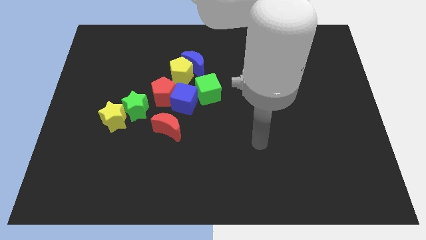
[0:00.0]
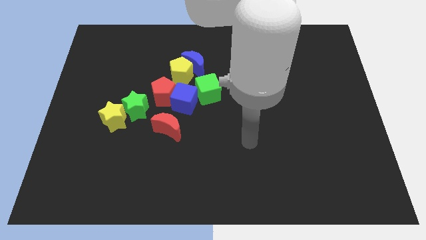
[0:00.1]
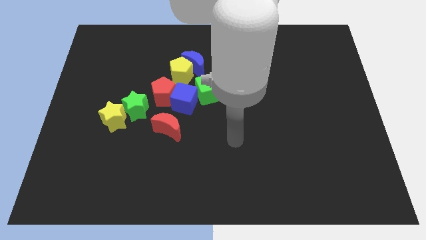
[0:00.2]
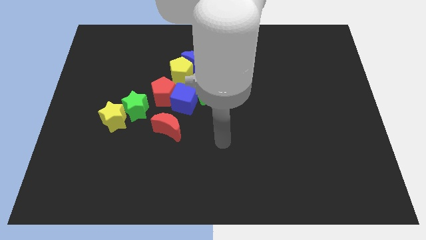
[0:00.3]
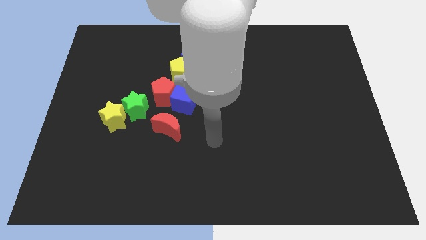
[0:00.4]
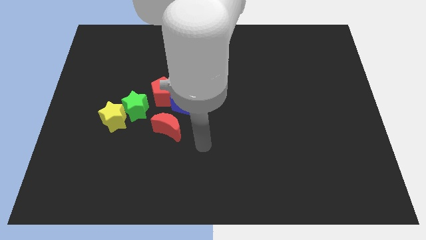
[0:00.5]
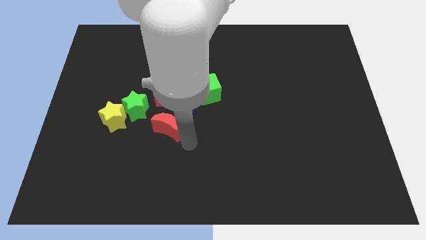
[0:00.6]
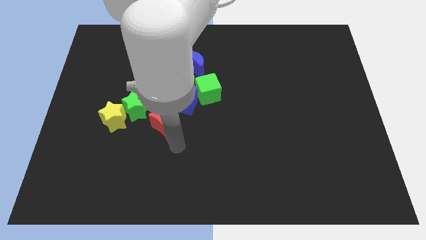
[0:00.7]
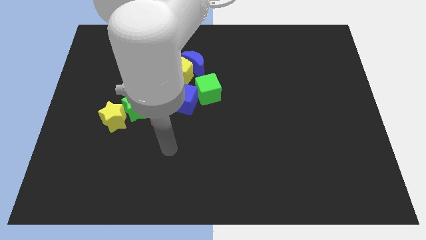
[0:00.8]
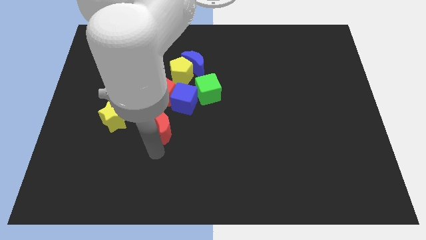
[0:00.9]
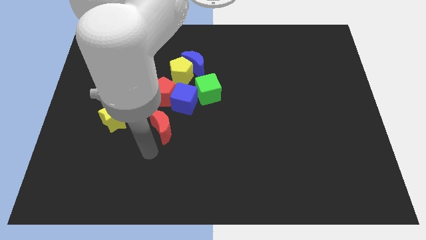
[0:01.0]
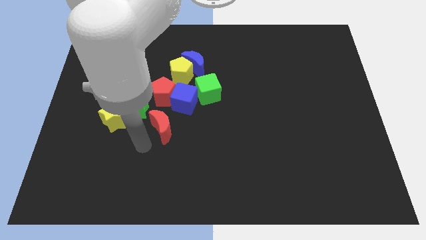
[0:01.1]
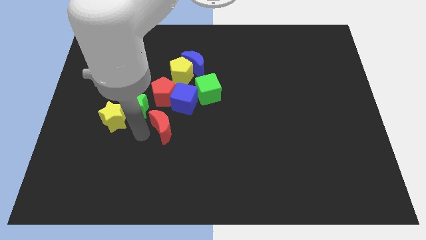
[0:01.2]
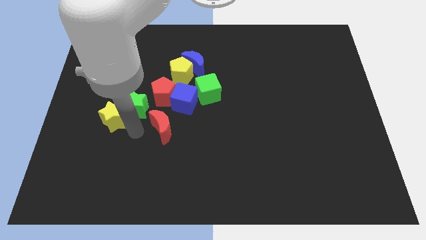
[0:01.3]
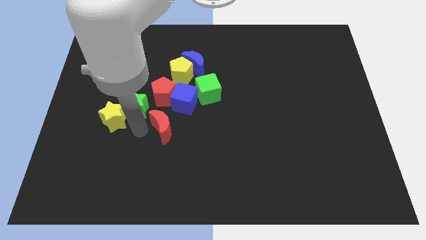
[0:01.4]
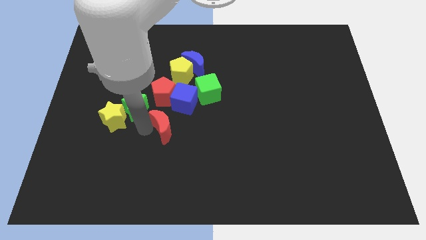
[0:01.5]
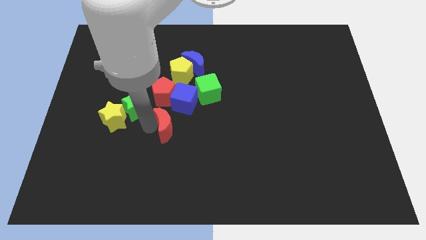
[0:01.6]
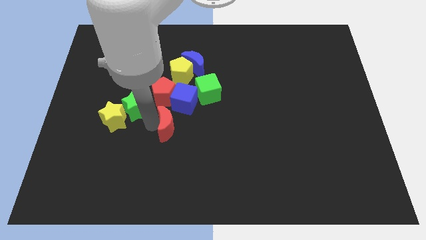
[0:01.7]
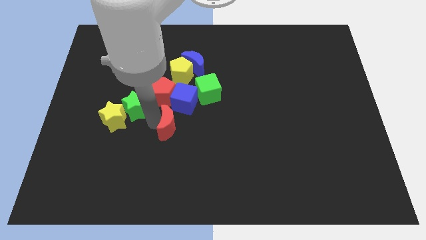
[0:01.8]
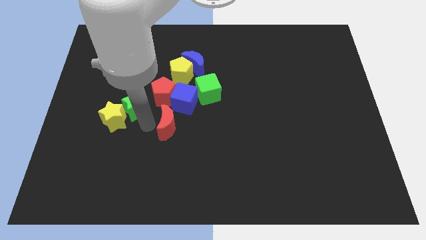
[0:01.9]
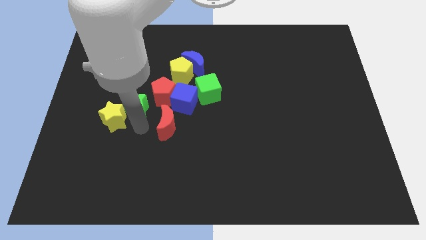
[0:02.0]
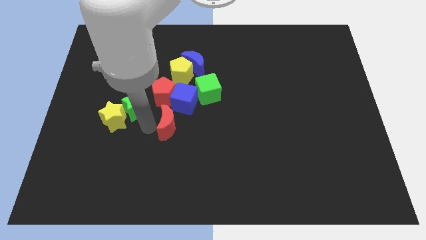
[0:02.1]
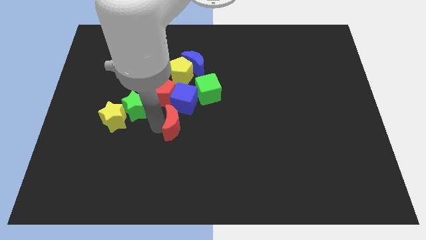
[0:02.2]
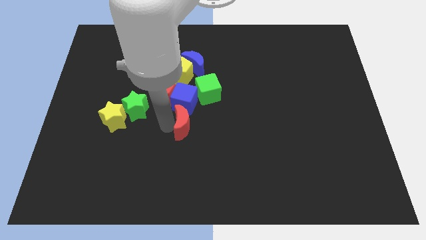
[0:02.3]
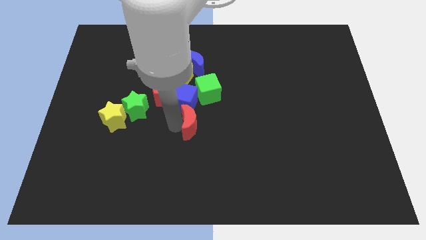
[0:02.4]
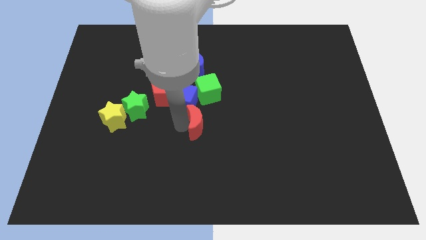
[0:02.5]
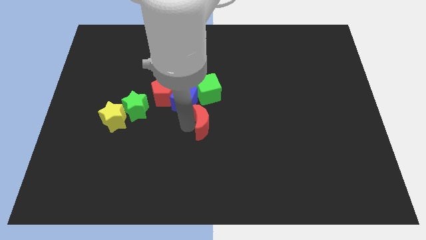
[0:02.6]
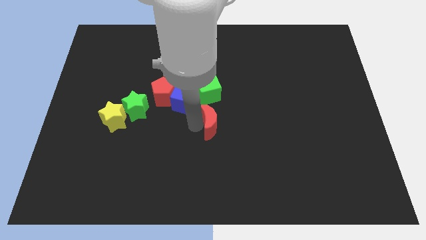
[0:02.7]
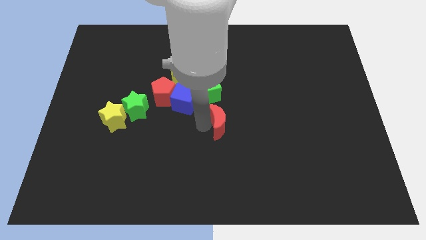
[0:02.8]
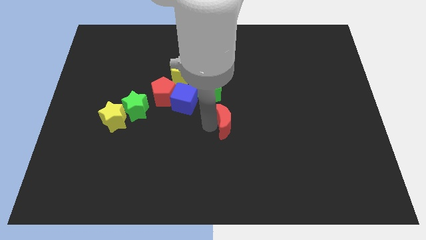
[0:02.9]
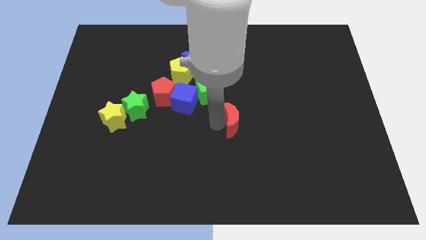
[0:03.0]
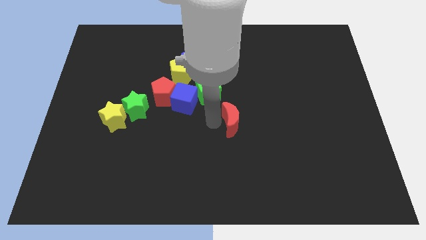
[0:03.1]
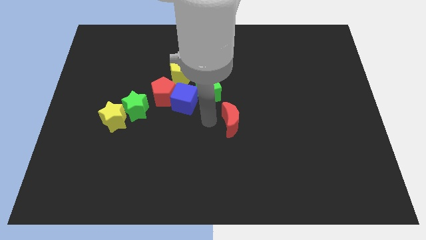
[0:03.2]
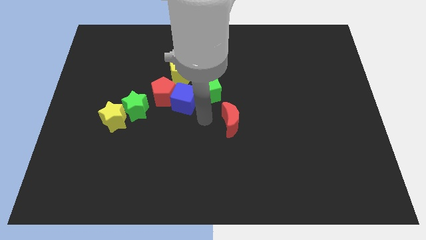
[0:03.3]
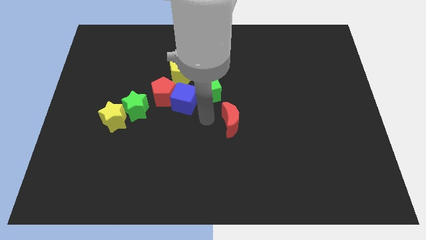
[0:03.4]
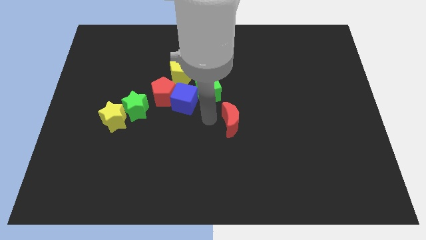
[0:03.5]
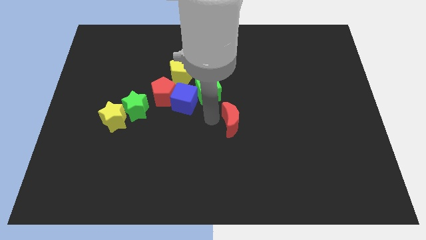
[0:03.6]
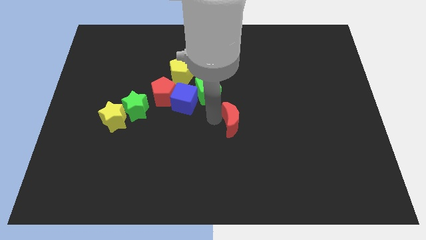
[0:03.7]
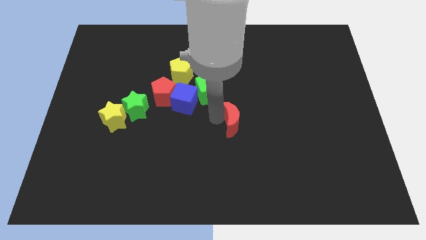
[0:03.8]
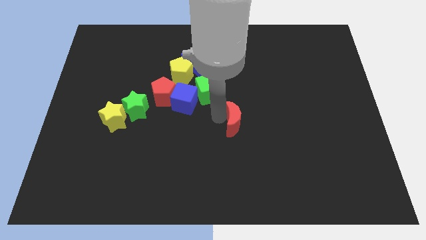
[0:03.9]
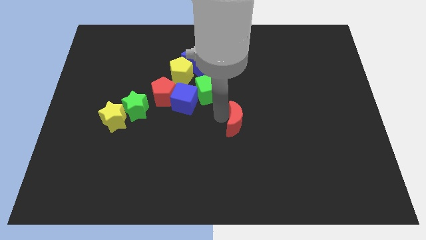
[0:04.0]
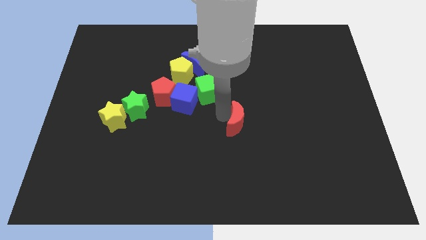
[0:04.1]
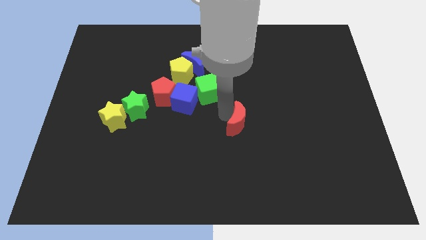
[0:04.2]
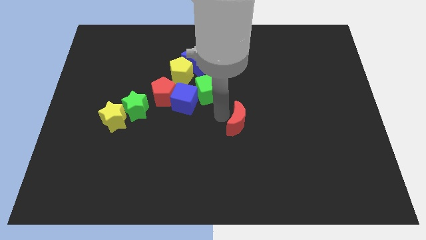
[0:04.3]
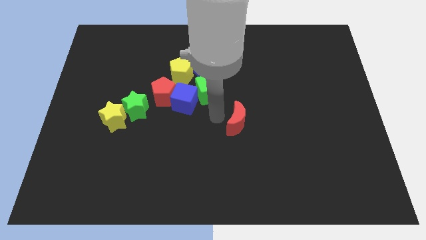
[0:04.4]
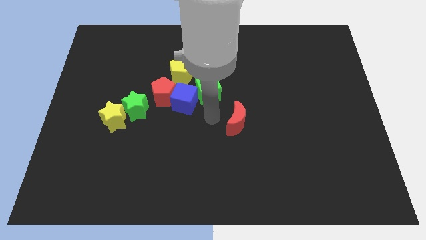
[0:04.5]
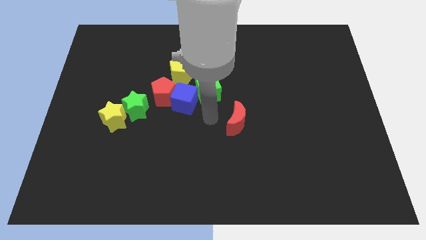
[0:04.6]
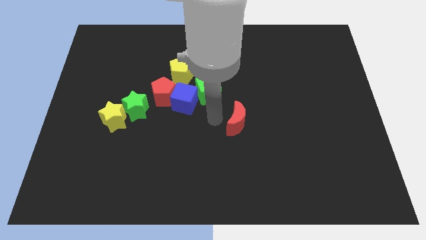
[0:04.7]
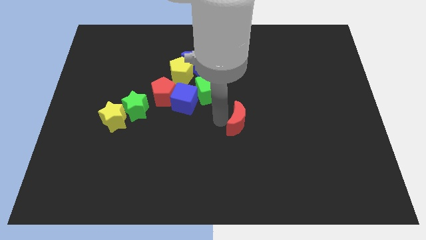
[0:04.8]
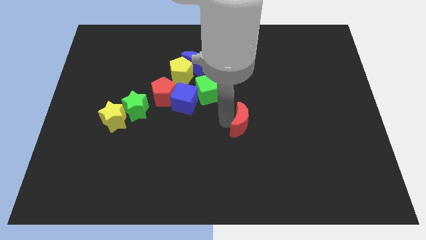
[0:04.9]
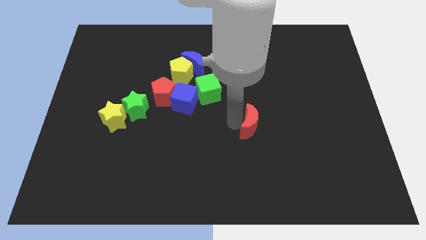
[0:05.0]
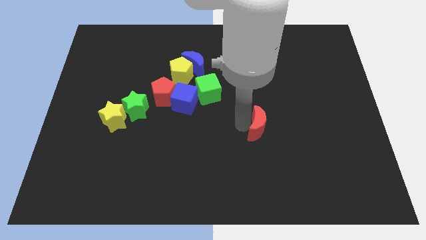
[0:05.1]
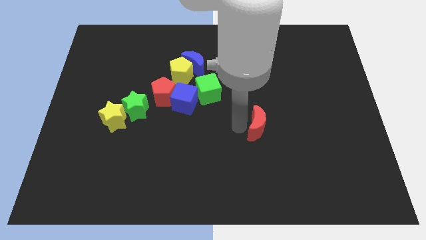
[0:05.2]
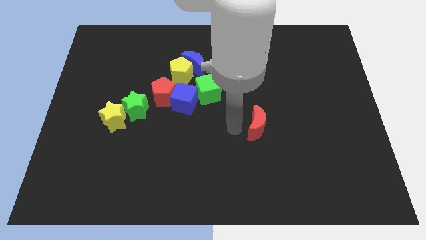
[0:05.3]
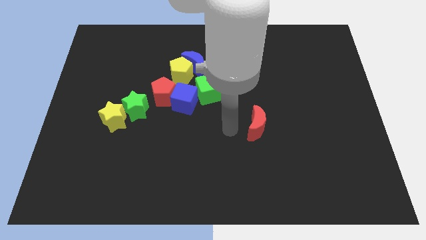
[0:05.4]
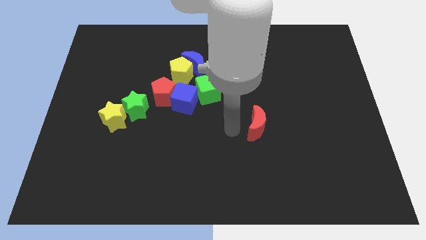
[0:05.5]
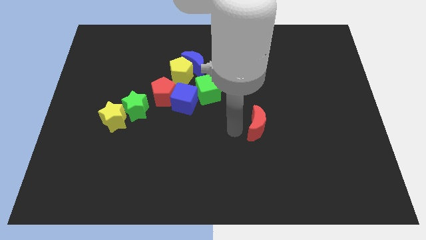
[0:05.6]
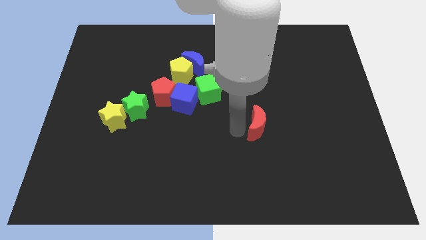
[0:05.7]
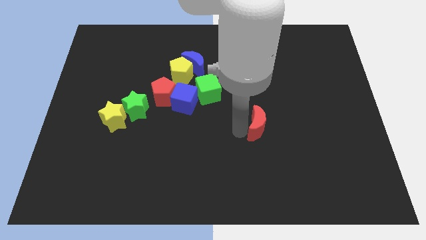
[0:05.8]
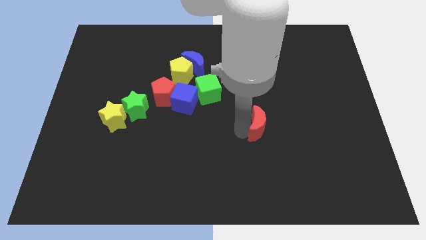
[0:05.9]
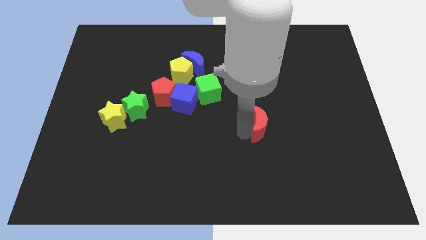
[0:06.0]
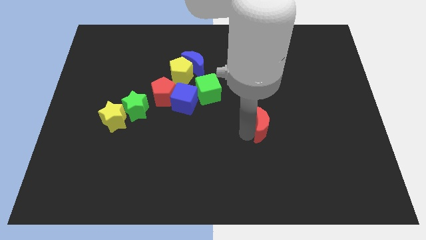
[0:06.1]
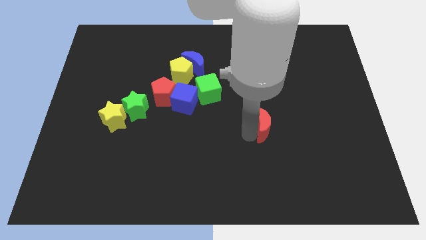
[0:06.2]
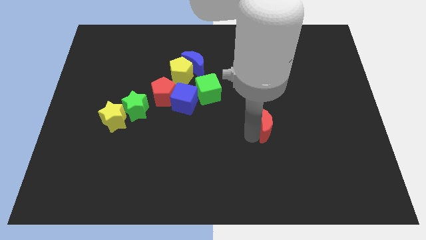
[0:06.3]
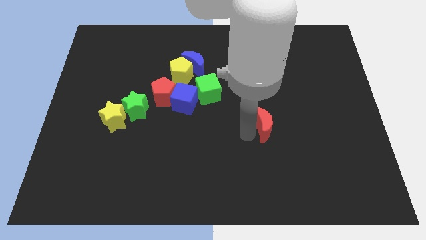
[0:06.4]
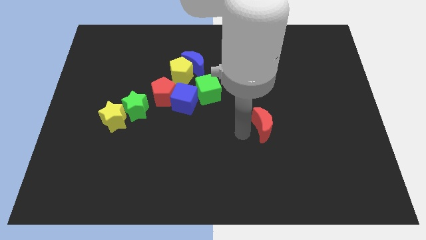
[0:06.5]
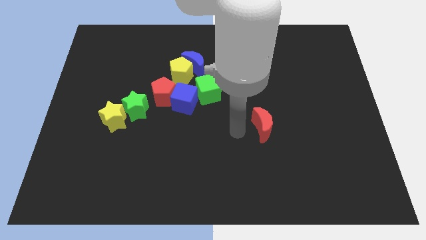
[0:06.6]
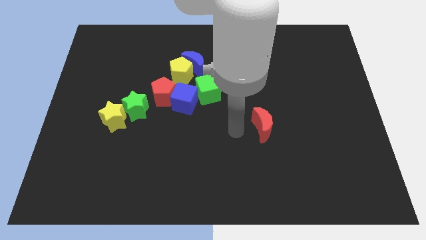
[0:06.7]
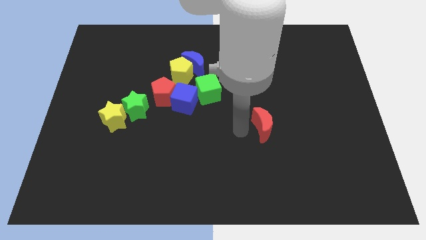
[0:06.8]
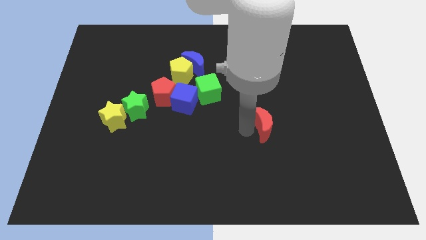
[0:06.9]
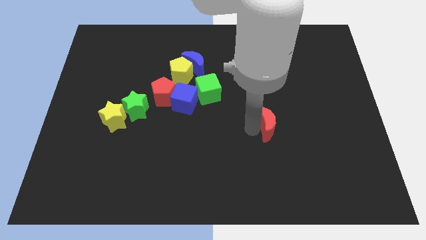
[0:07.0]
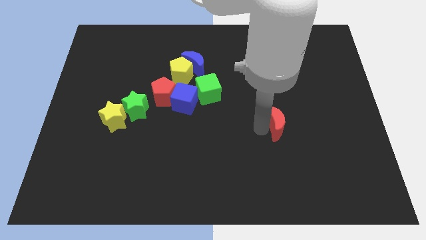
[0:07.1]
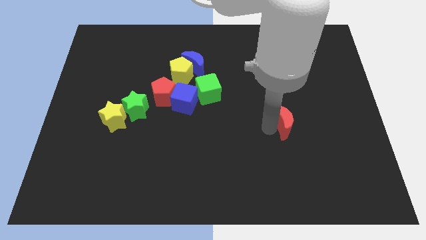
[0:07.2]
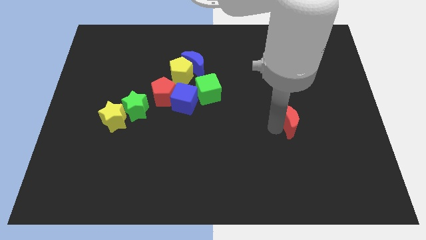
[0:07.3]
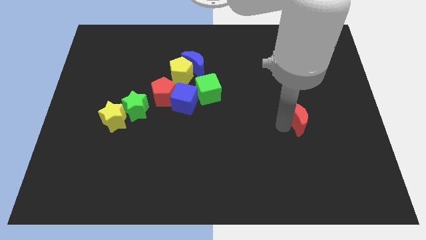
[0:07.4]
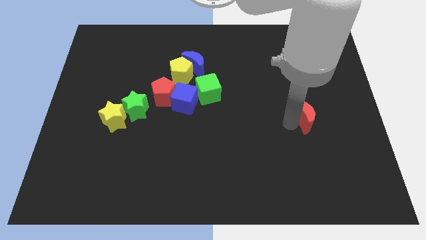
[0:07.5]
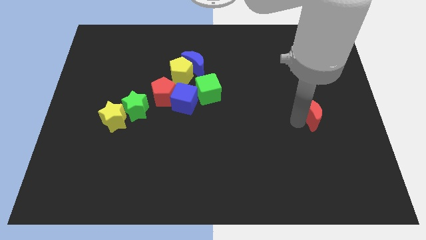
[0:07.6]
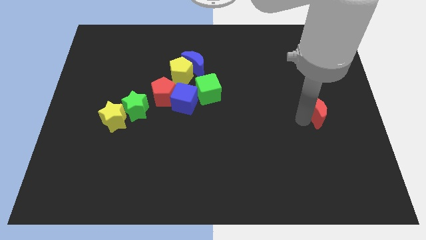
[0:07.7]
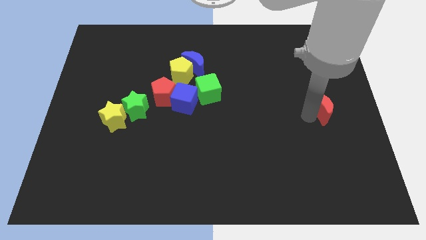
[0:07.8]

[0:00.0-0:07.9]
move the red moon to the center right
